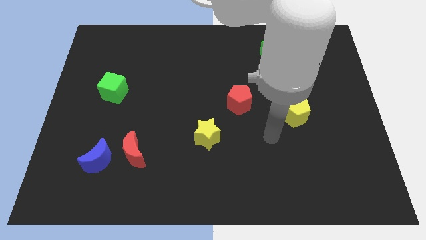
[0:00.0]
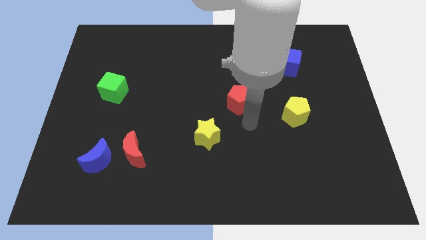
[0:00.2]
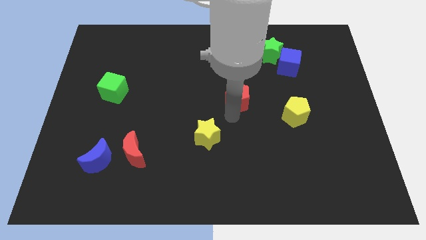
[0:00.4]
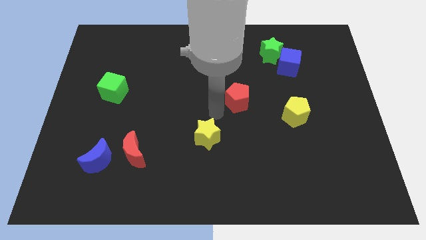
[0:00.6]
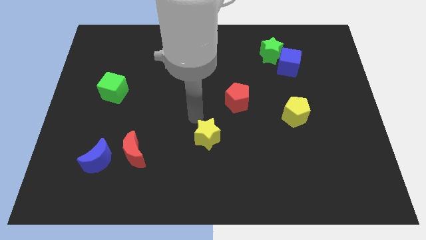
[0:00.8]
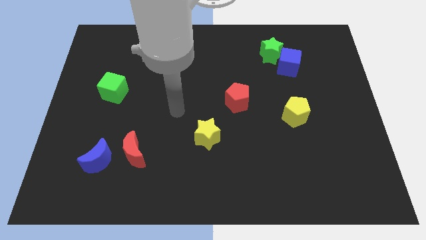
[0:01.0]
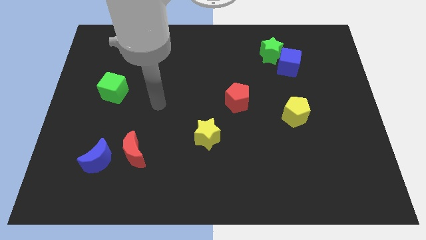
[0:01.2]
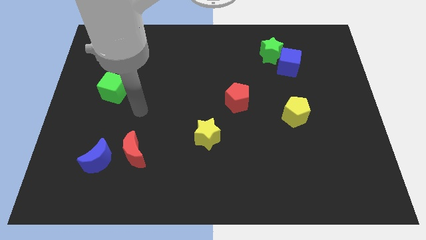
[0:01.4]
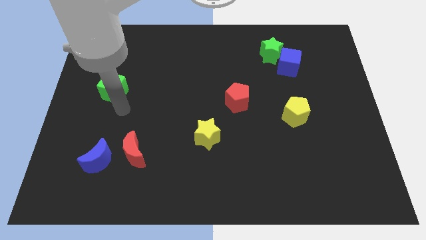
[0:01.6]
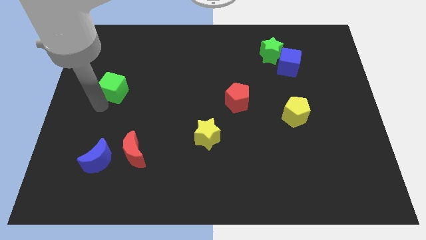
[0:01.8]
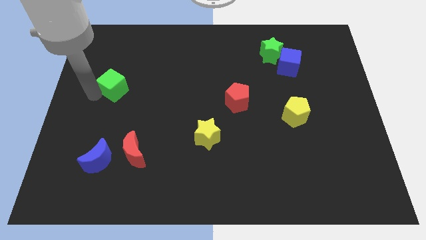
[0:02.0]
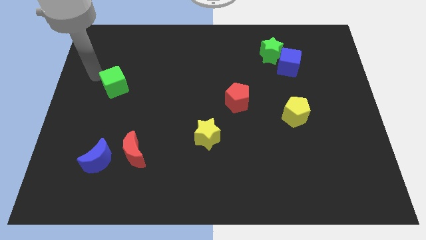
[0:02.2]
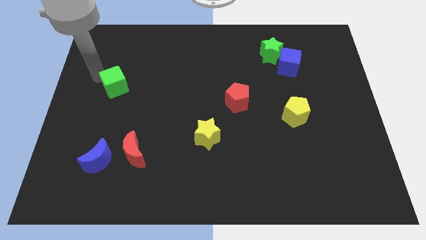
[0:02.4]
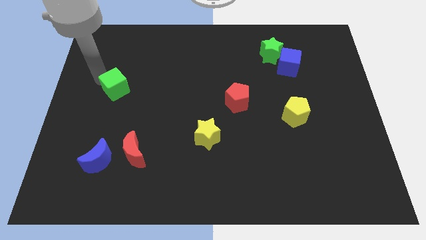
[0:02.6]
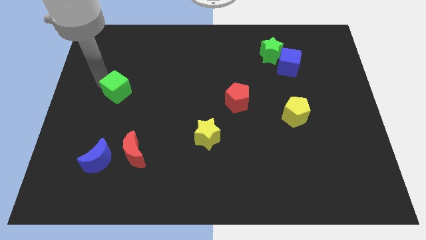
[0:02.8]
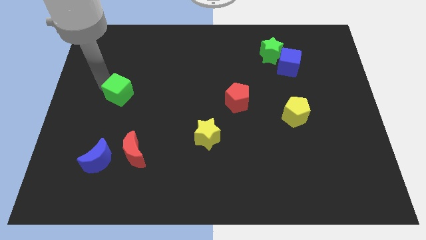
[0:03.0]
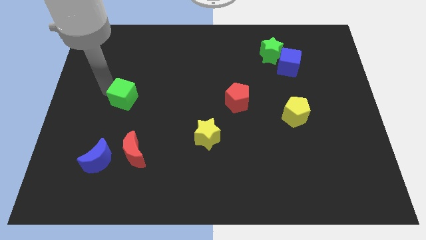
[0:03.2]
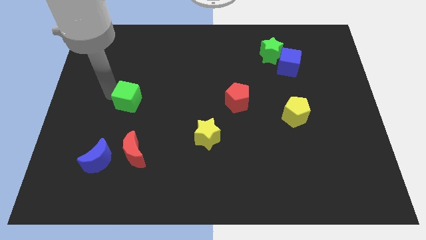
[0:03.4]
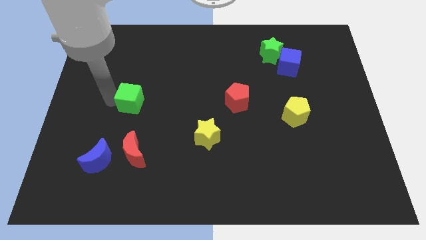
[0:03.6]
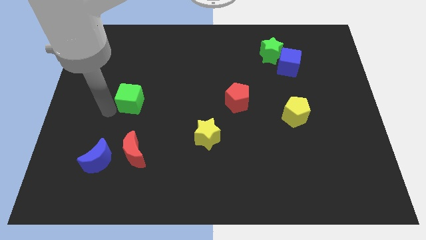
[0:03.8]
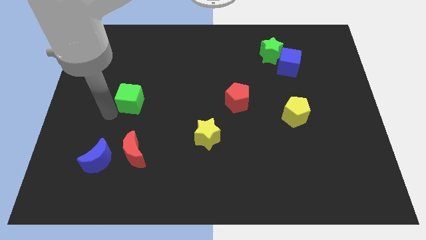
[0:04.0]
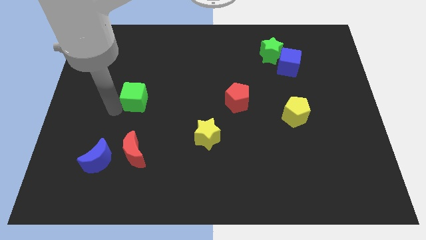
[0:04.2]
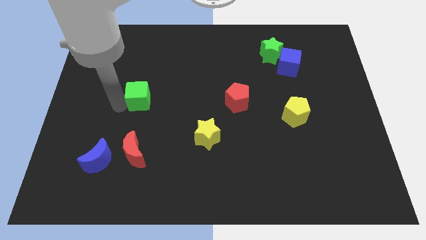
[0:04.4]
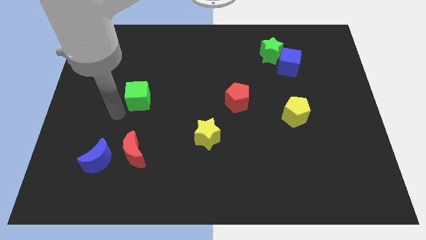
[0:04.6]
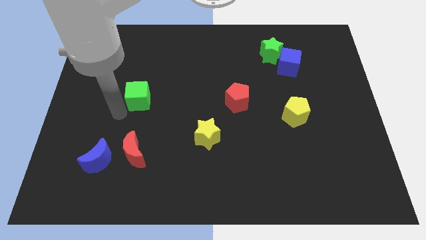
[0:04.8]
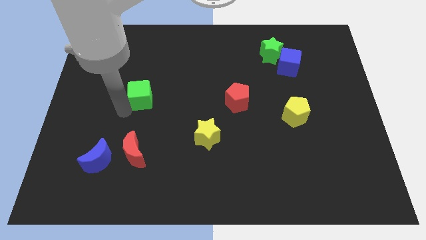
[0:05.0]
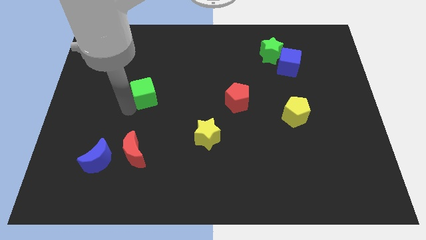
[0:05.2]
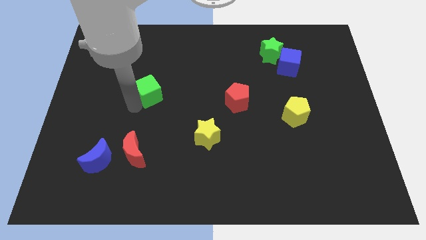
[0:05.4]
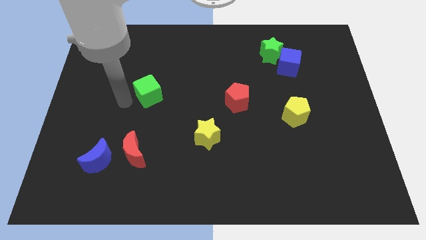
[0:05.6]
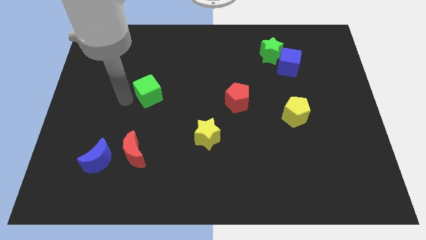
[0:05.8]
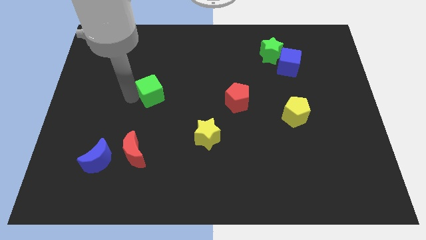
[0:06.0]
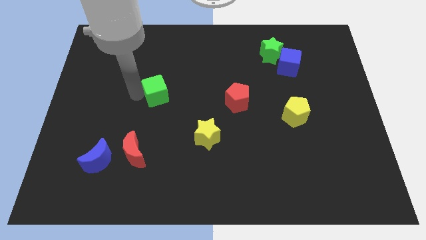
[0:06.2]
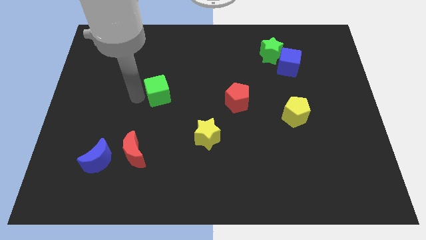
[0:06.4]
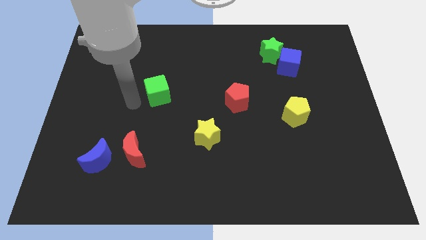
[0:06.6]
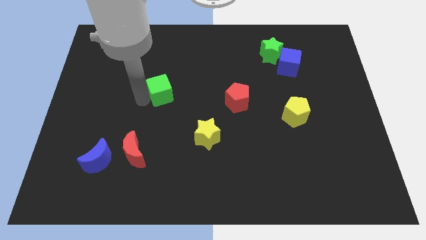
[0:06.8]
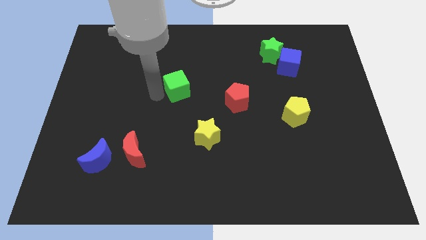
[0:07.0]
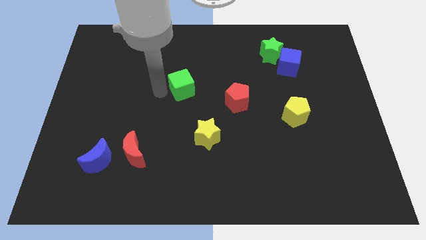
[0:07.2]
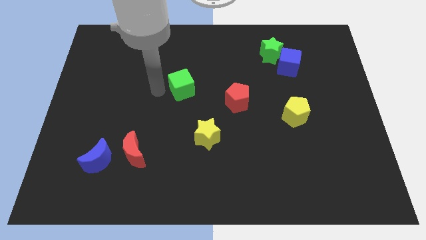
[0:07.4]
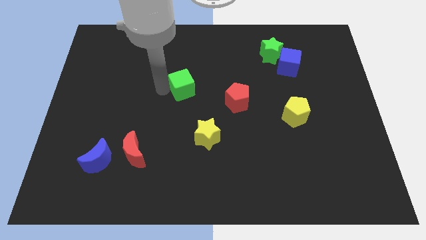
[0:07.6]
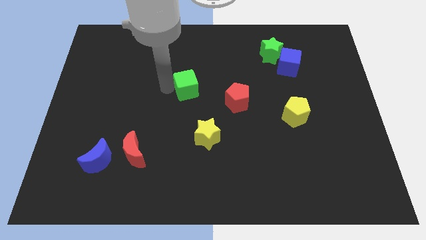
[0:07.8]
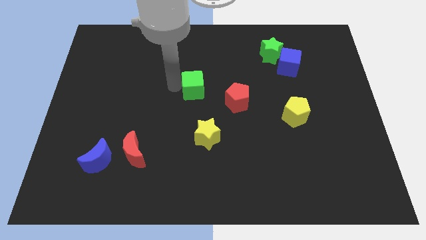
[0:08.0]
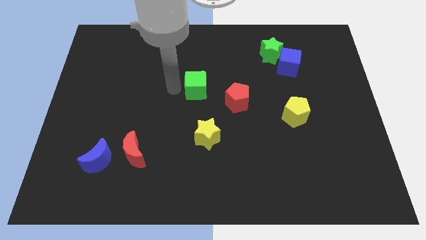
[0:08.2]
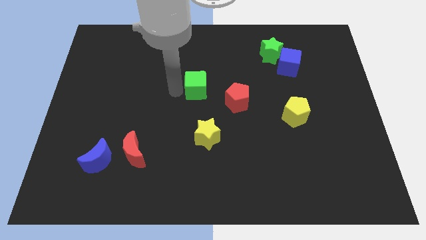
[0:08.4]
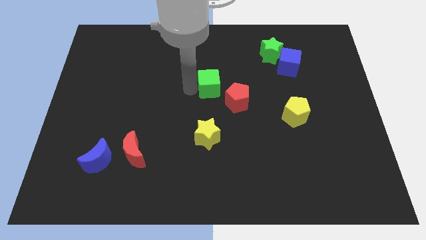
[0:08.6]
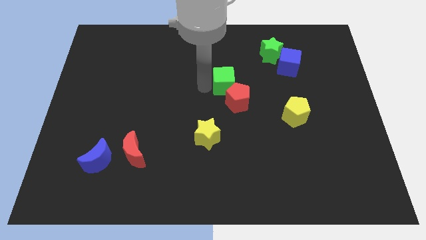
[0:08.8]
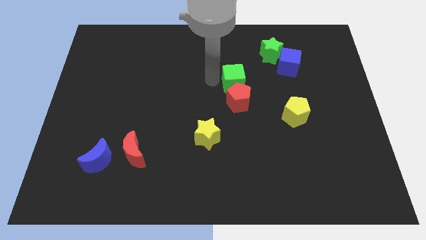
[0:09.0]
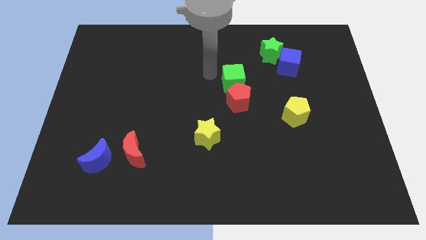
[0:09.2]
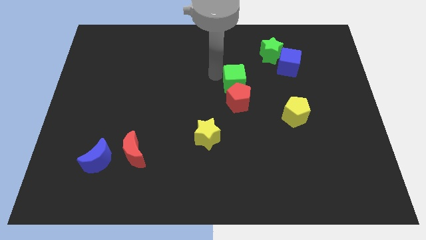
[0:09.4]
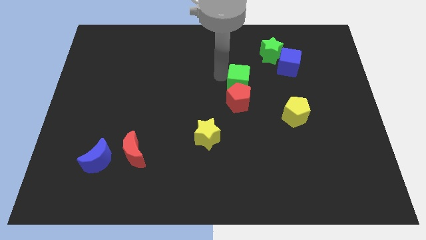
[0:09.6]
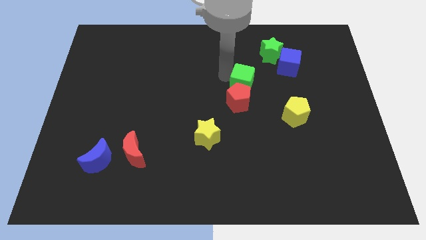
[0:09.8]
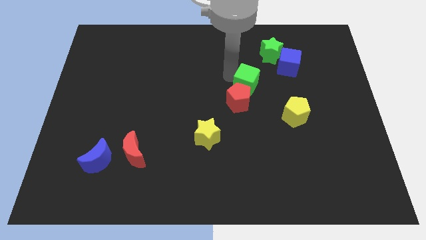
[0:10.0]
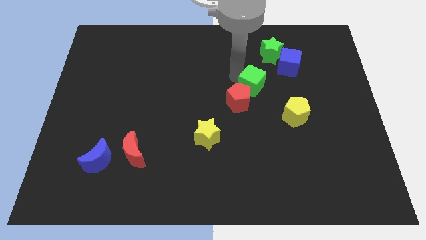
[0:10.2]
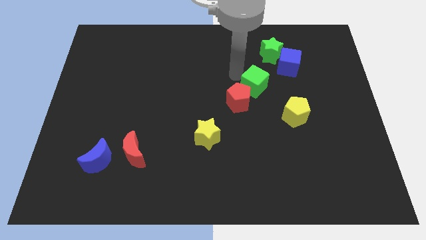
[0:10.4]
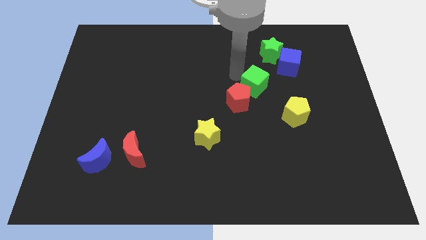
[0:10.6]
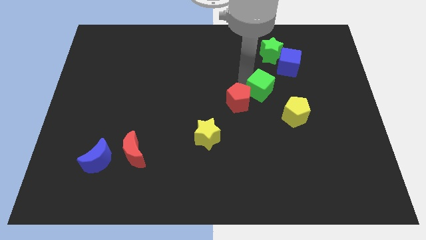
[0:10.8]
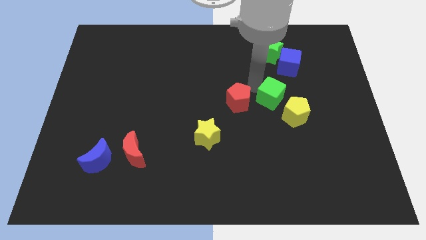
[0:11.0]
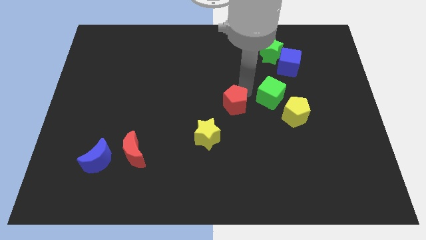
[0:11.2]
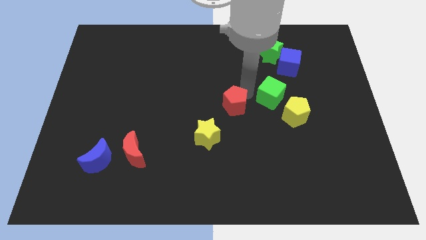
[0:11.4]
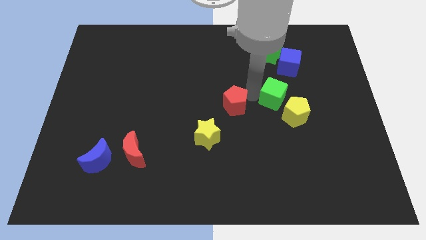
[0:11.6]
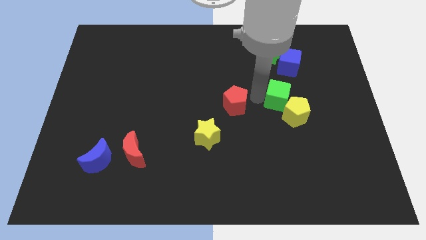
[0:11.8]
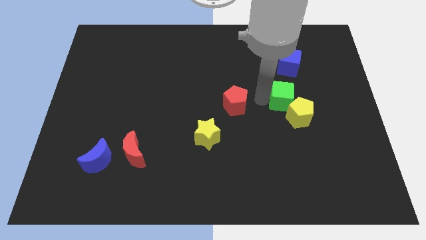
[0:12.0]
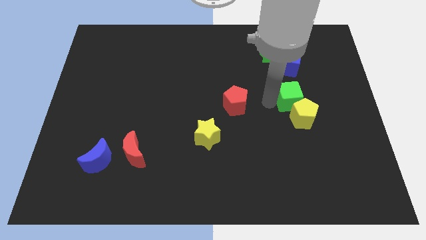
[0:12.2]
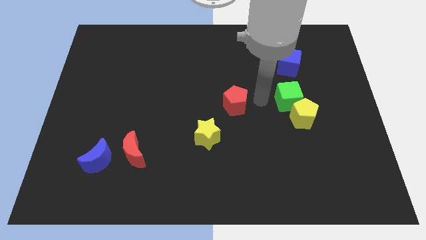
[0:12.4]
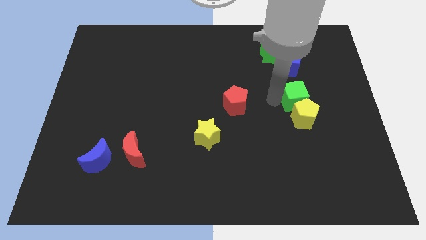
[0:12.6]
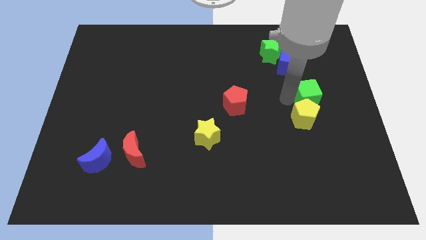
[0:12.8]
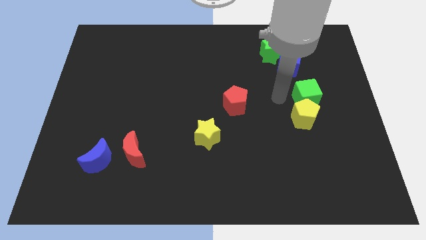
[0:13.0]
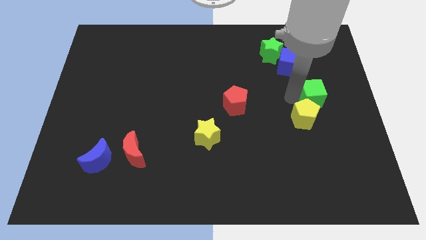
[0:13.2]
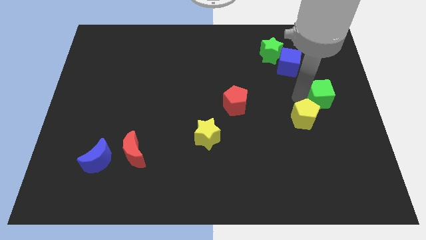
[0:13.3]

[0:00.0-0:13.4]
put the green cube to the right side
